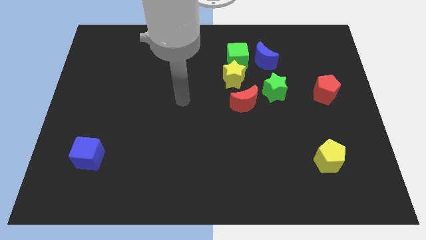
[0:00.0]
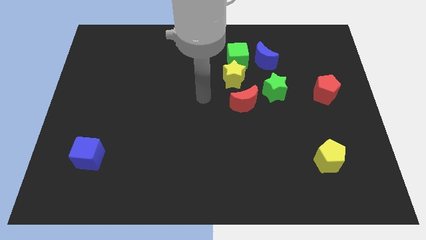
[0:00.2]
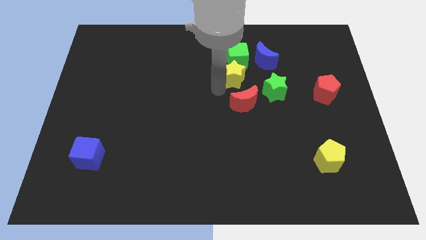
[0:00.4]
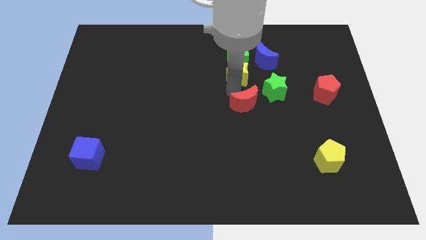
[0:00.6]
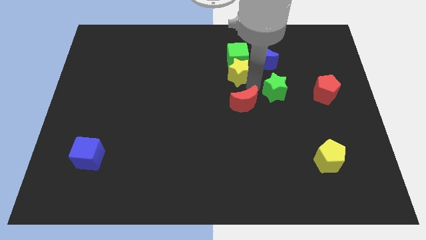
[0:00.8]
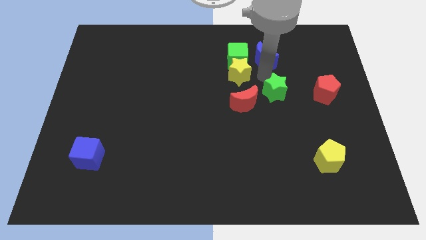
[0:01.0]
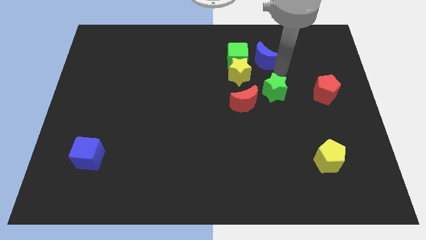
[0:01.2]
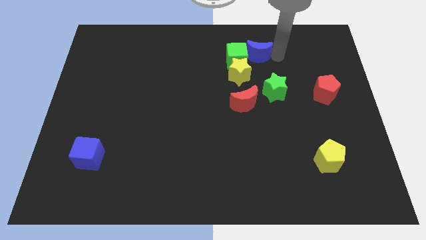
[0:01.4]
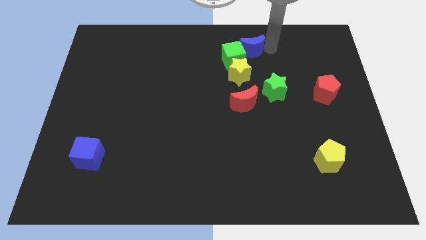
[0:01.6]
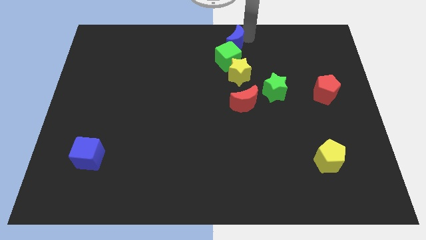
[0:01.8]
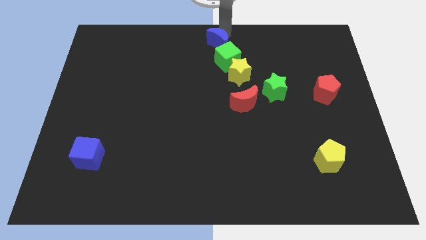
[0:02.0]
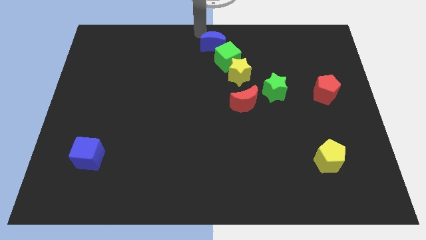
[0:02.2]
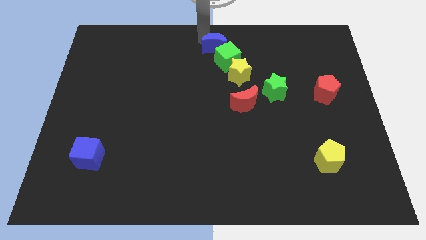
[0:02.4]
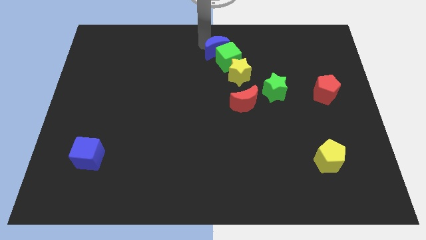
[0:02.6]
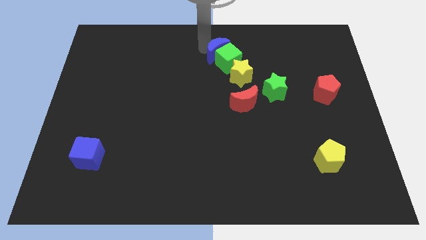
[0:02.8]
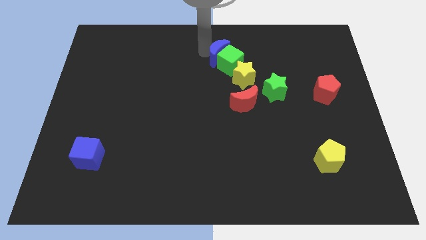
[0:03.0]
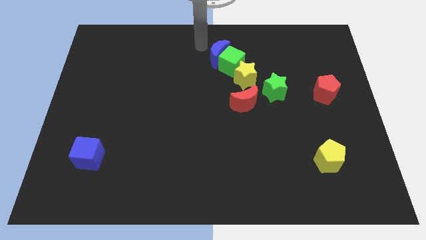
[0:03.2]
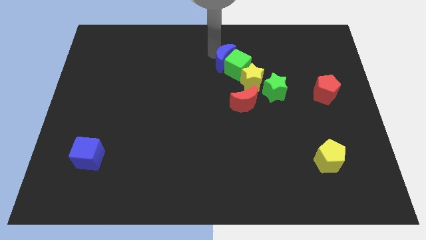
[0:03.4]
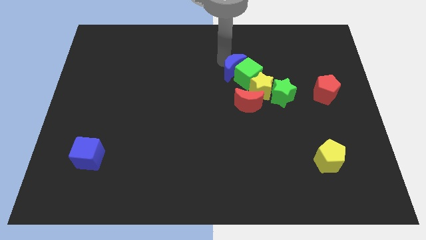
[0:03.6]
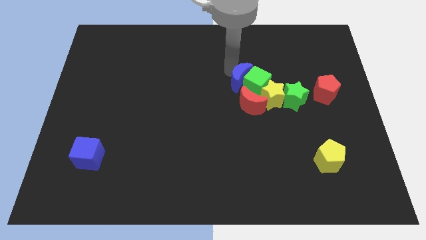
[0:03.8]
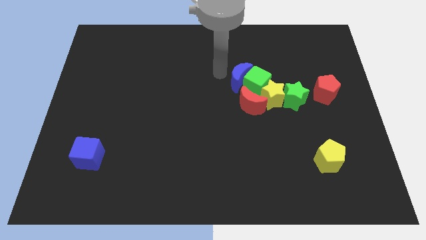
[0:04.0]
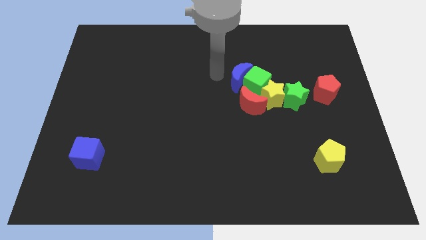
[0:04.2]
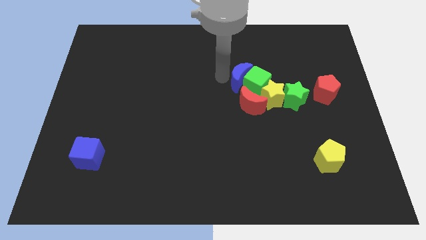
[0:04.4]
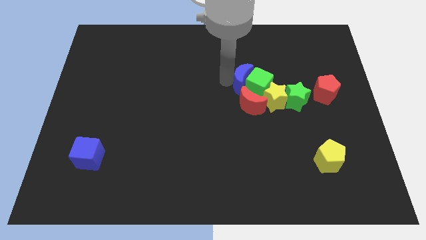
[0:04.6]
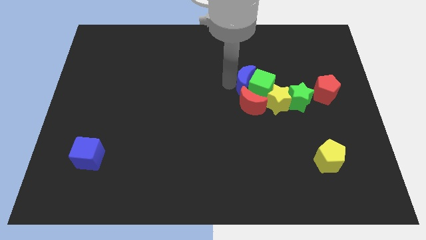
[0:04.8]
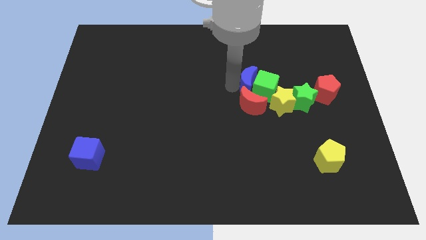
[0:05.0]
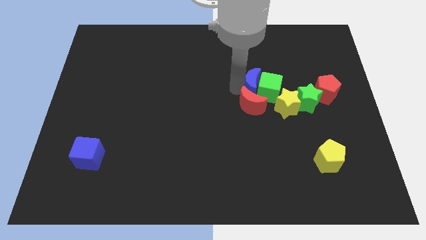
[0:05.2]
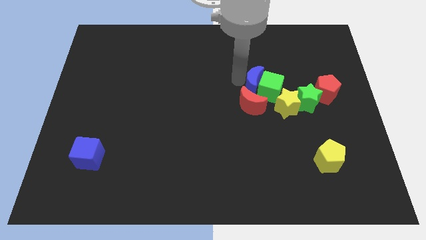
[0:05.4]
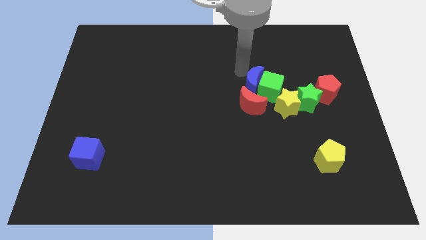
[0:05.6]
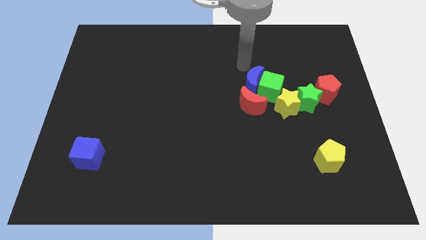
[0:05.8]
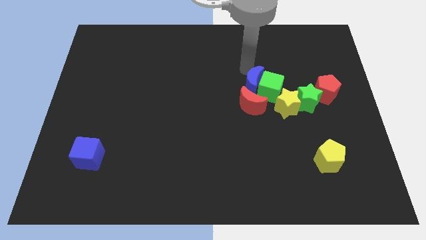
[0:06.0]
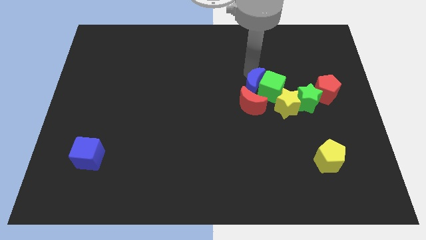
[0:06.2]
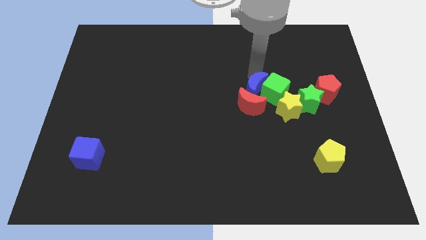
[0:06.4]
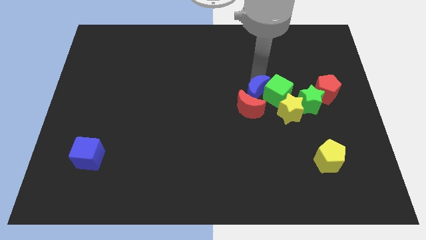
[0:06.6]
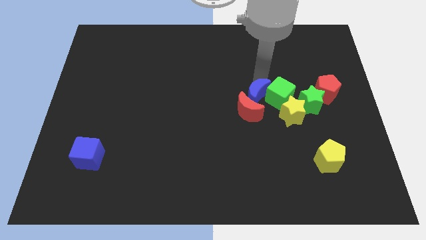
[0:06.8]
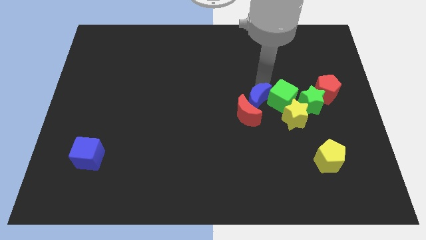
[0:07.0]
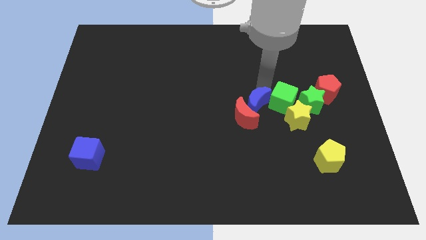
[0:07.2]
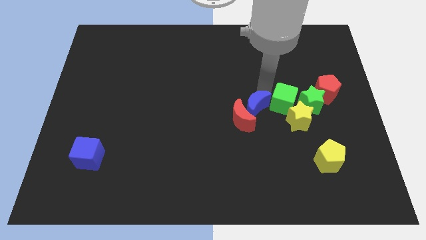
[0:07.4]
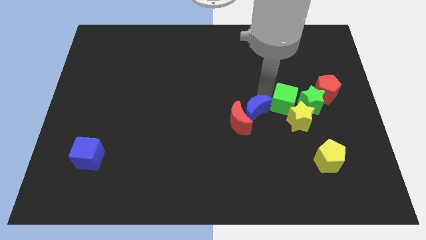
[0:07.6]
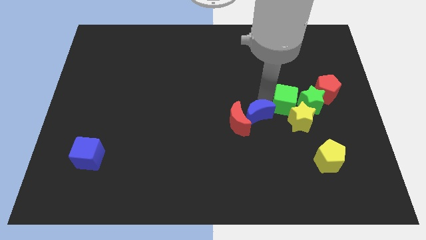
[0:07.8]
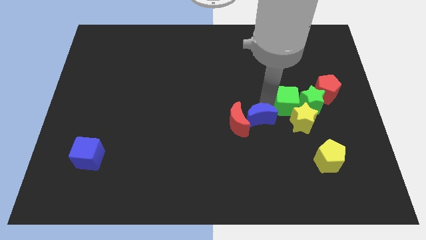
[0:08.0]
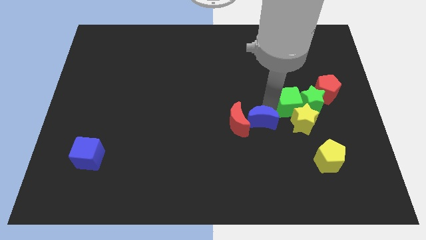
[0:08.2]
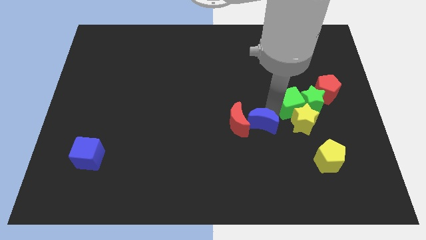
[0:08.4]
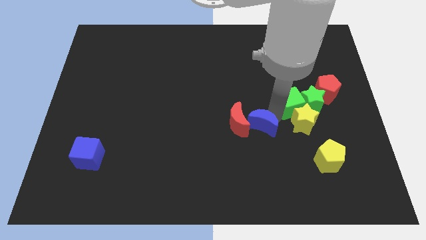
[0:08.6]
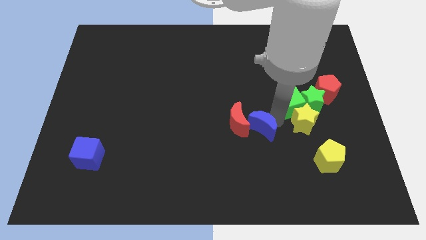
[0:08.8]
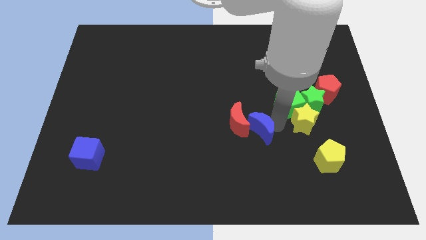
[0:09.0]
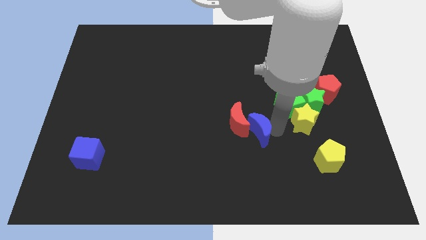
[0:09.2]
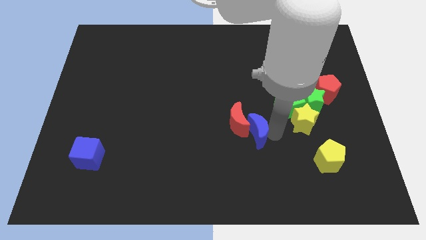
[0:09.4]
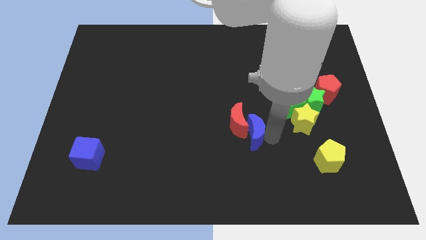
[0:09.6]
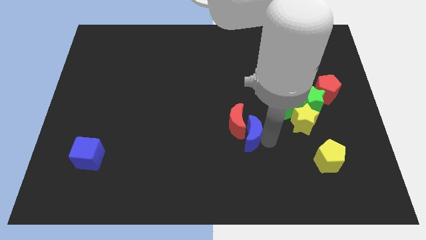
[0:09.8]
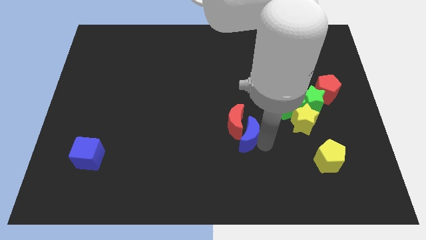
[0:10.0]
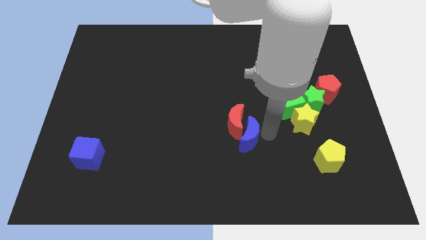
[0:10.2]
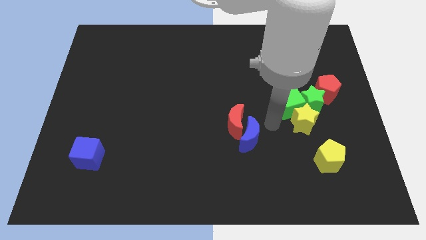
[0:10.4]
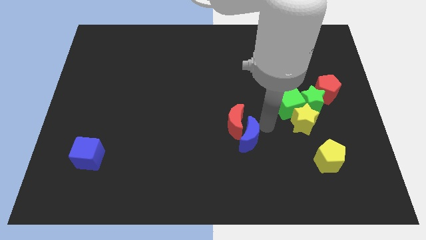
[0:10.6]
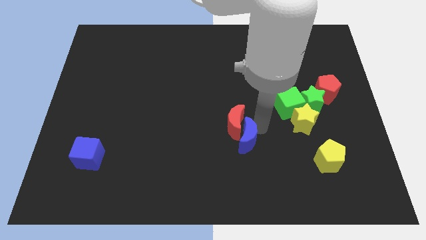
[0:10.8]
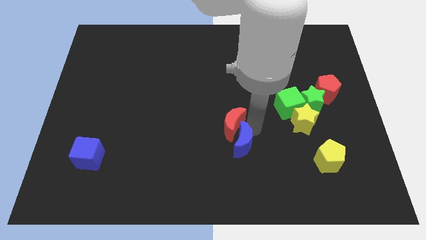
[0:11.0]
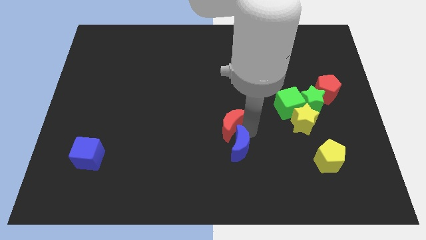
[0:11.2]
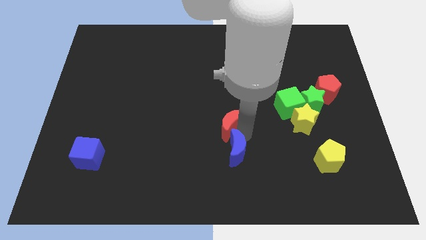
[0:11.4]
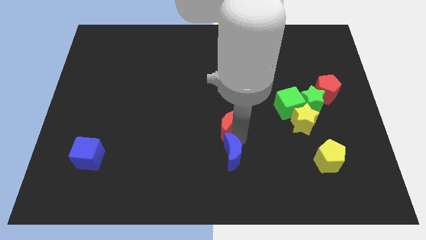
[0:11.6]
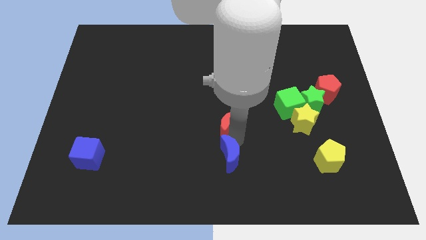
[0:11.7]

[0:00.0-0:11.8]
put the blue moon to the bottom

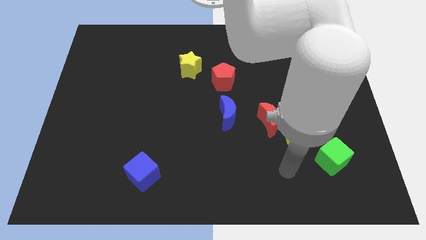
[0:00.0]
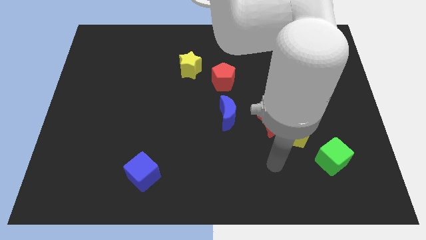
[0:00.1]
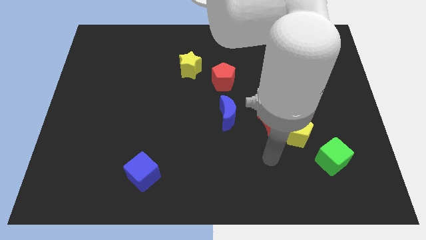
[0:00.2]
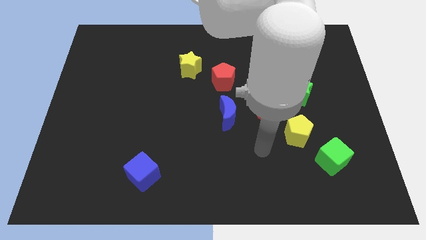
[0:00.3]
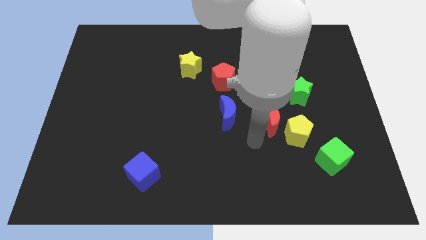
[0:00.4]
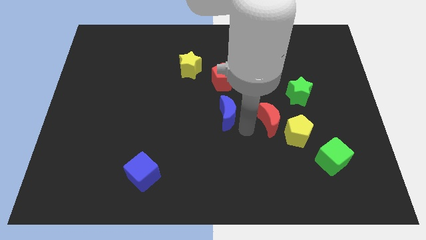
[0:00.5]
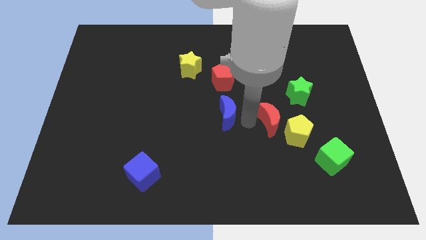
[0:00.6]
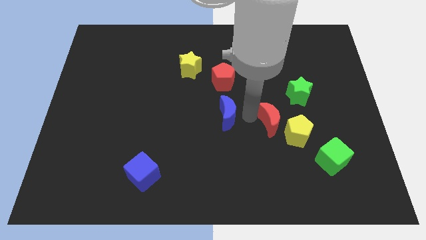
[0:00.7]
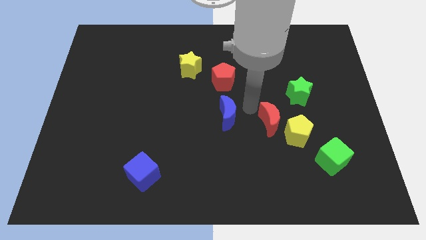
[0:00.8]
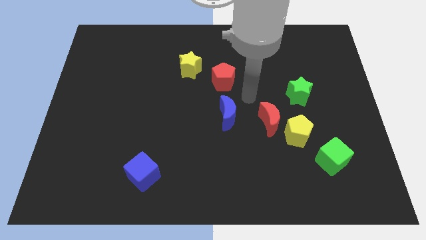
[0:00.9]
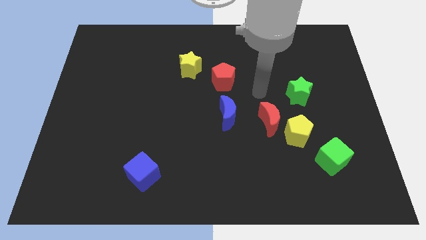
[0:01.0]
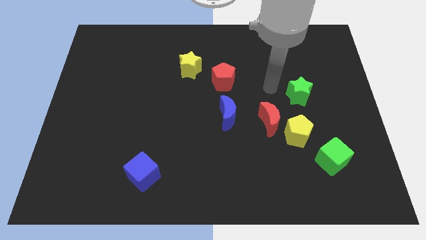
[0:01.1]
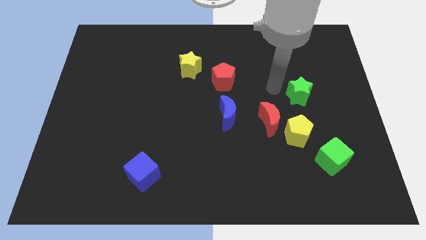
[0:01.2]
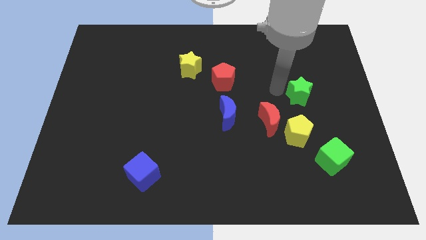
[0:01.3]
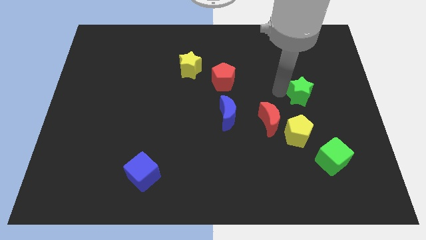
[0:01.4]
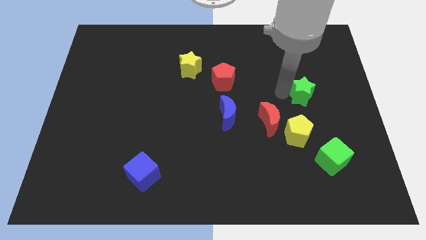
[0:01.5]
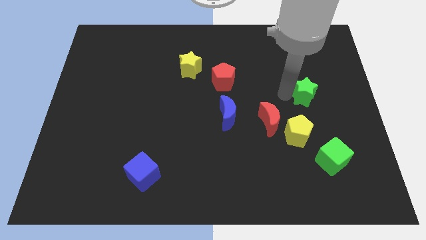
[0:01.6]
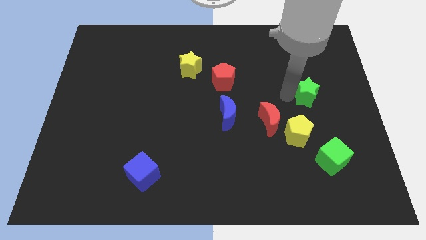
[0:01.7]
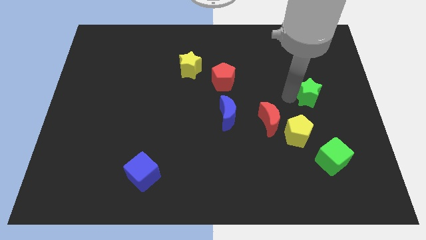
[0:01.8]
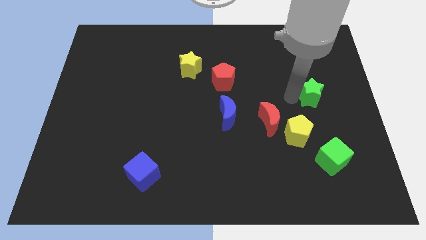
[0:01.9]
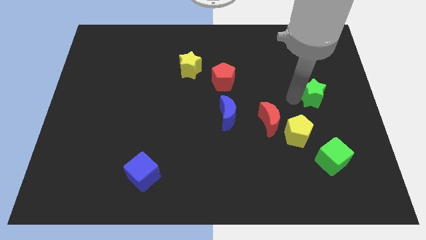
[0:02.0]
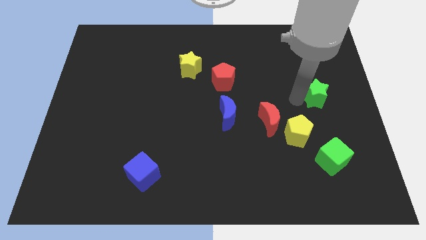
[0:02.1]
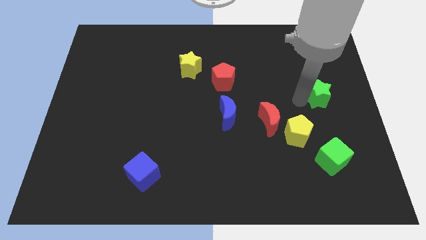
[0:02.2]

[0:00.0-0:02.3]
slide the green star to the right side of the board
